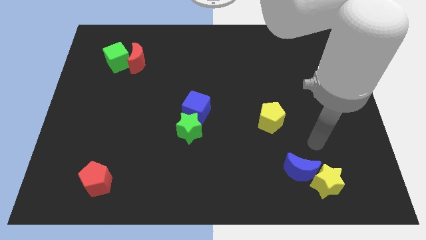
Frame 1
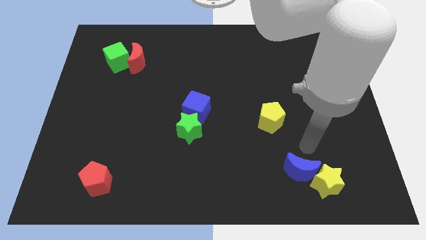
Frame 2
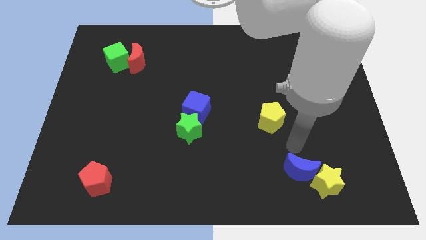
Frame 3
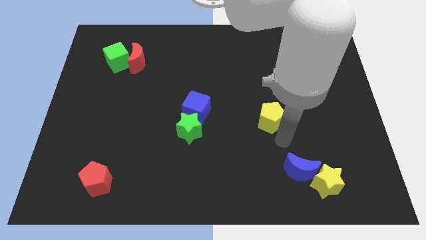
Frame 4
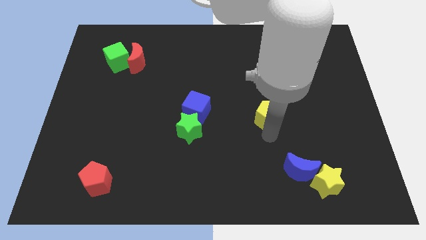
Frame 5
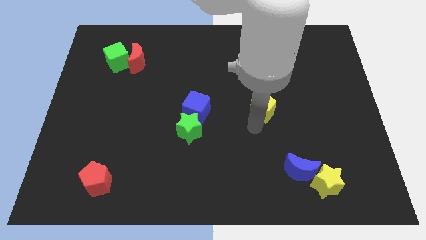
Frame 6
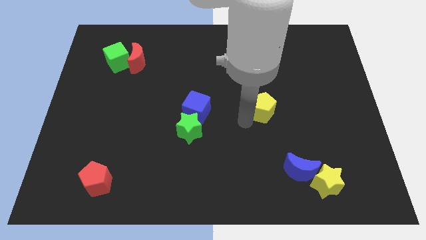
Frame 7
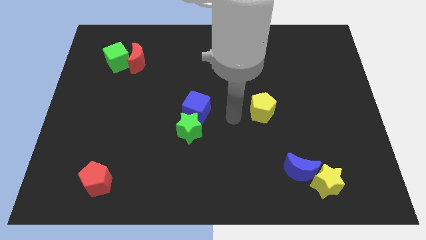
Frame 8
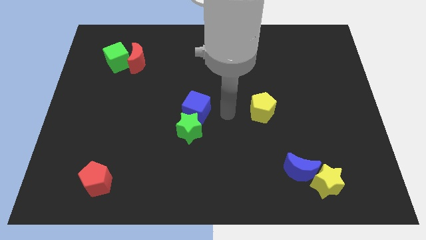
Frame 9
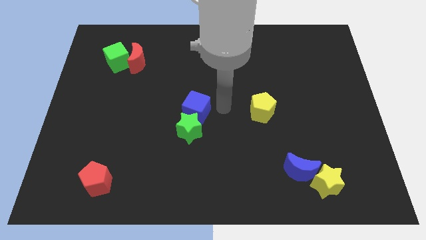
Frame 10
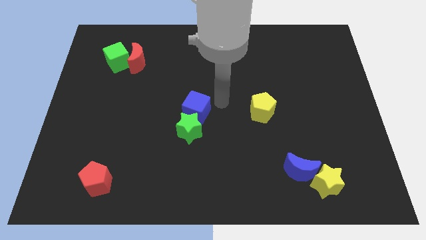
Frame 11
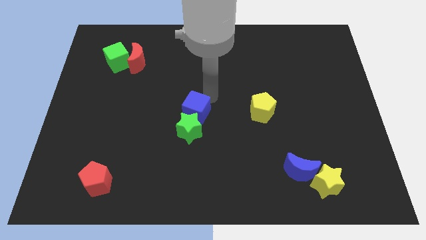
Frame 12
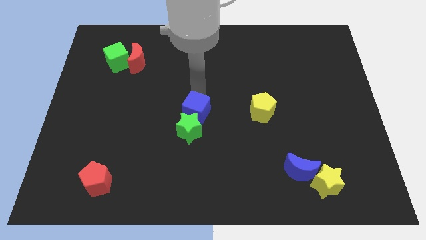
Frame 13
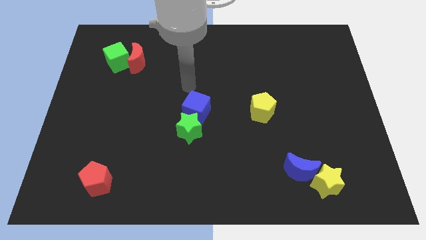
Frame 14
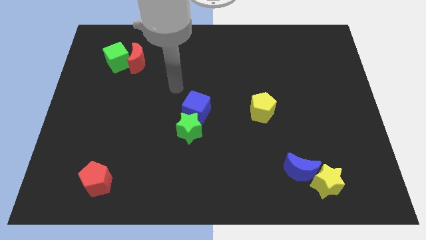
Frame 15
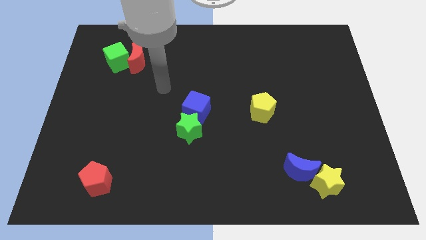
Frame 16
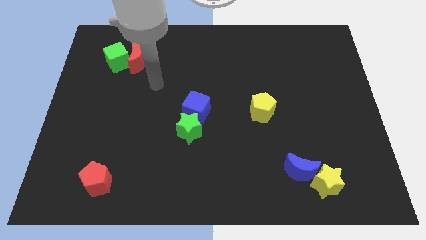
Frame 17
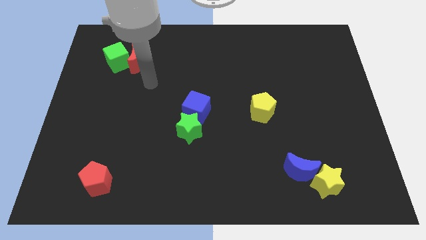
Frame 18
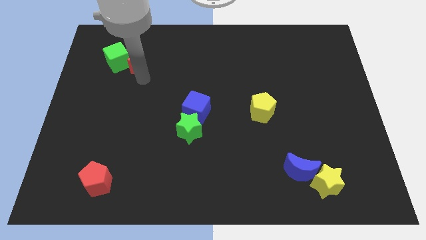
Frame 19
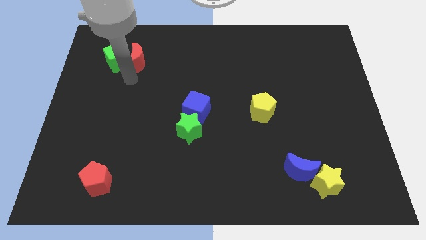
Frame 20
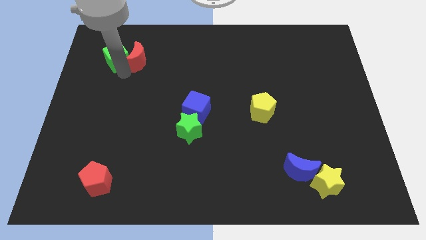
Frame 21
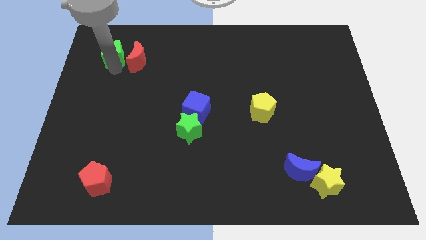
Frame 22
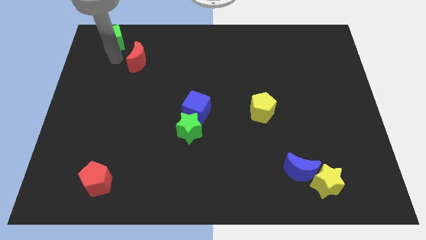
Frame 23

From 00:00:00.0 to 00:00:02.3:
pull the red moon apart from the green cube

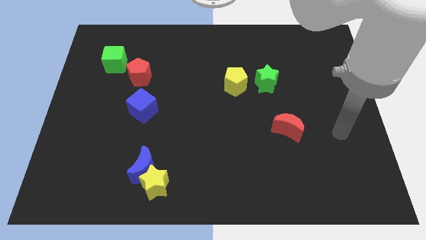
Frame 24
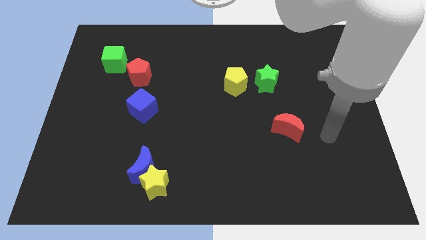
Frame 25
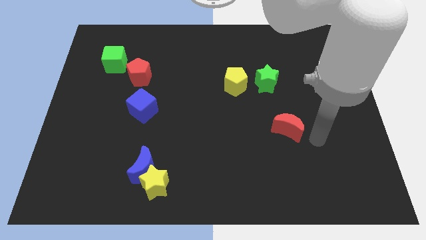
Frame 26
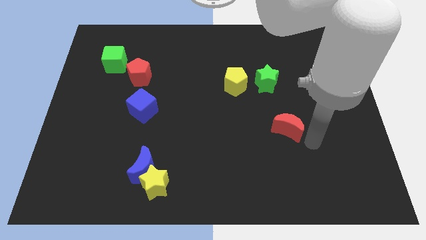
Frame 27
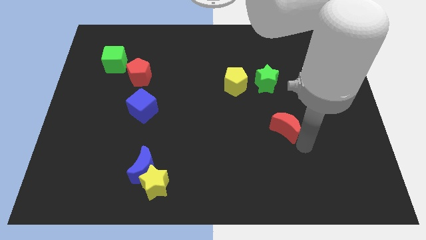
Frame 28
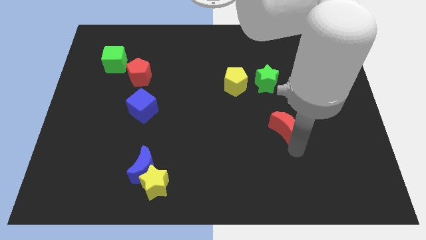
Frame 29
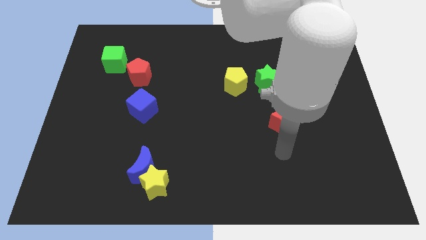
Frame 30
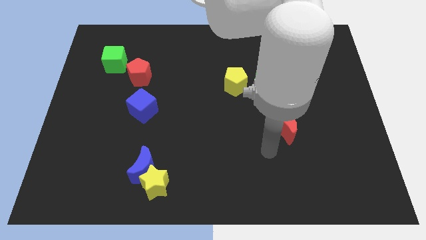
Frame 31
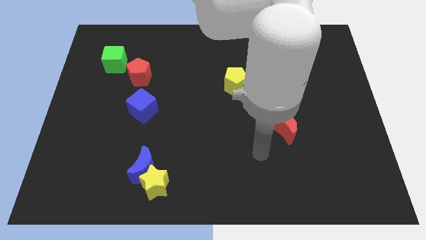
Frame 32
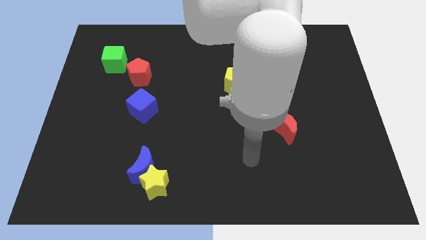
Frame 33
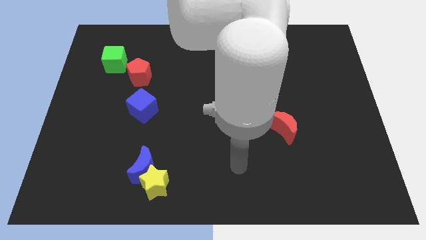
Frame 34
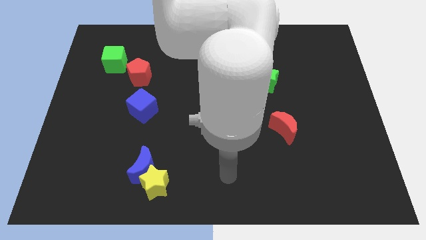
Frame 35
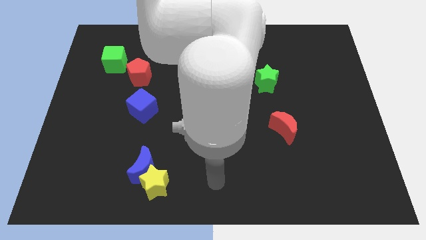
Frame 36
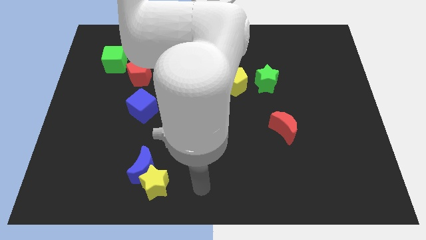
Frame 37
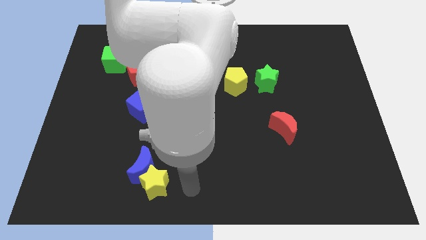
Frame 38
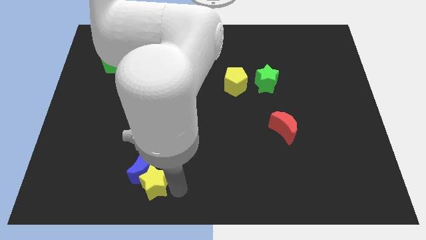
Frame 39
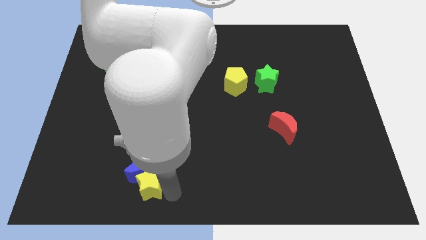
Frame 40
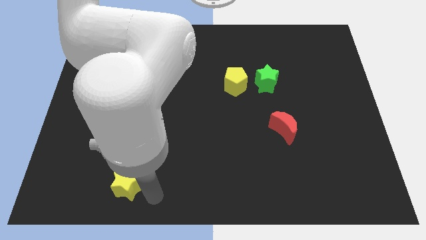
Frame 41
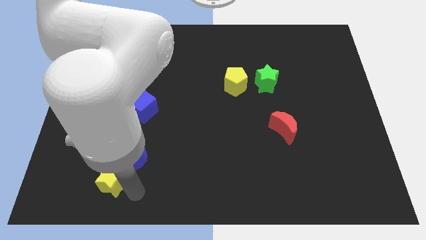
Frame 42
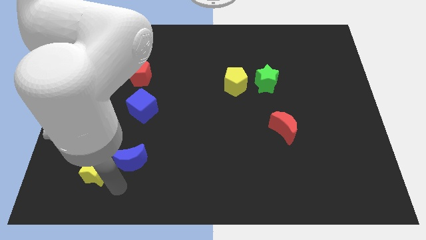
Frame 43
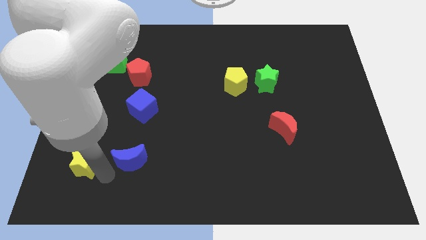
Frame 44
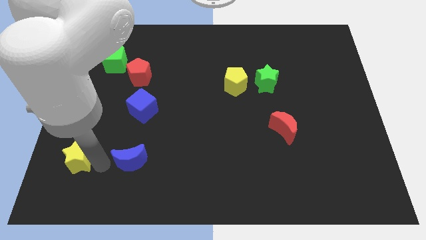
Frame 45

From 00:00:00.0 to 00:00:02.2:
separate the blue moon from the yellow star

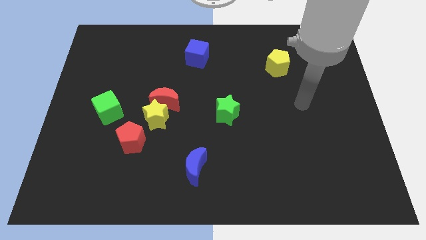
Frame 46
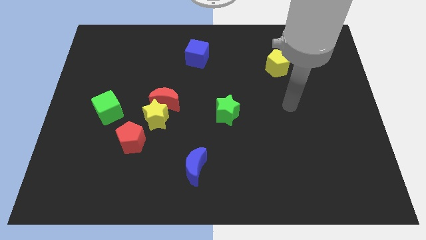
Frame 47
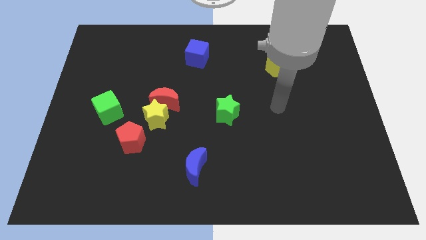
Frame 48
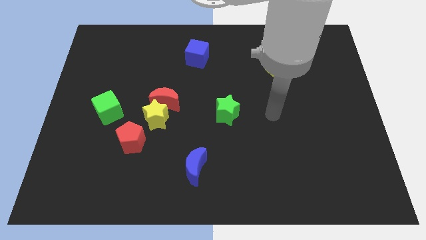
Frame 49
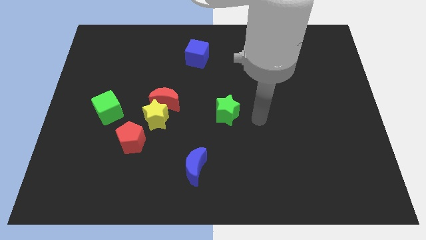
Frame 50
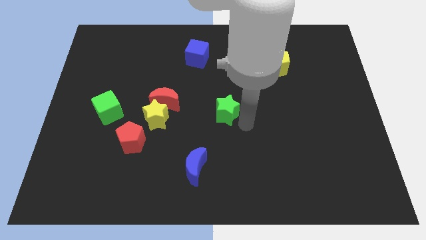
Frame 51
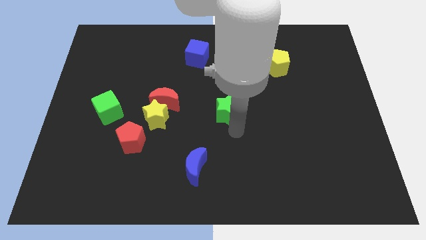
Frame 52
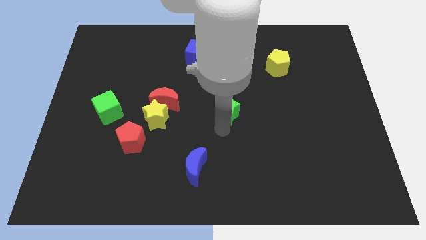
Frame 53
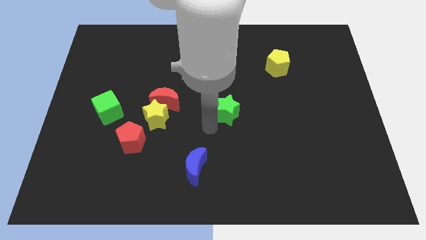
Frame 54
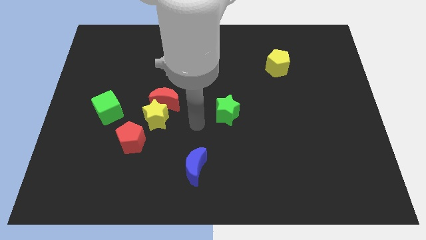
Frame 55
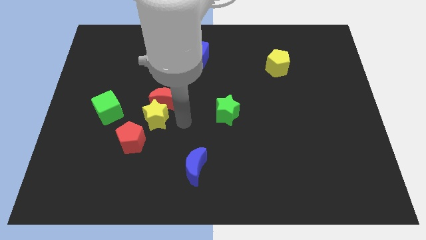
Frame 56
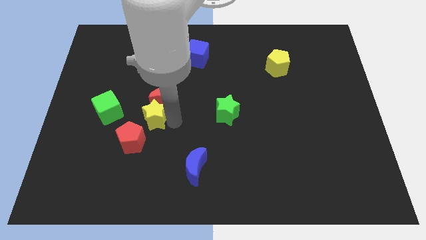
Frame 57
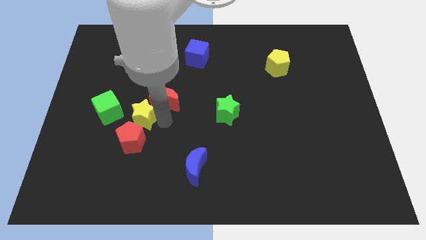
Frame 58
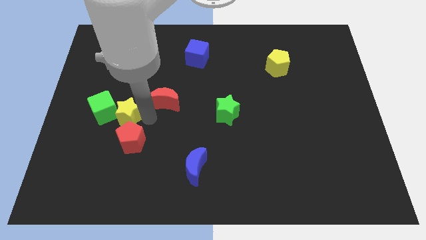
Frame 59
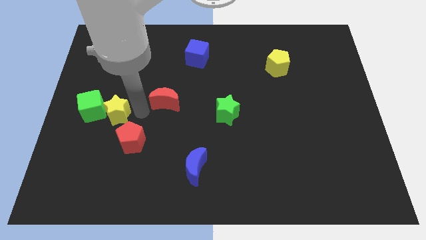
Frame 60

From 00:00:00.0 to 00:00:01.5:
move the red moon away from the yellow star

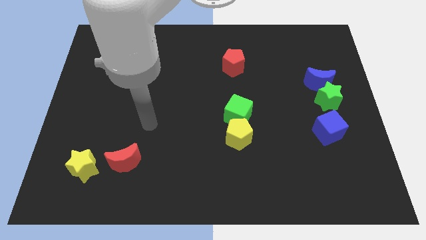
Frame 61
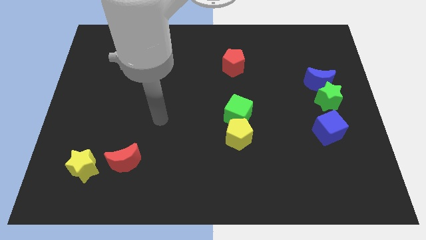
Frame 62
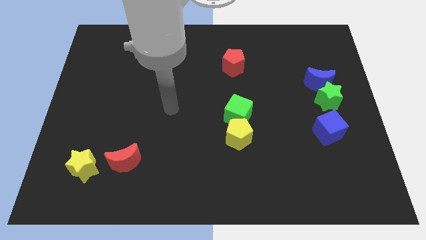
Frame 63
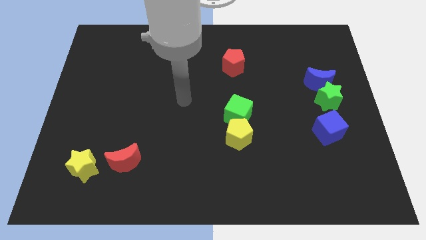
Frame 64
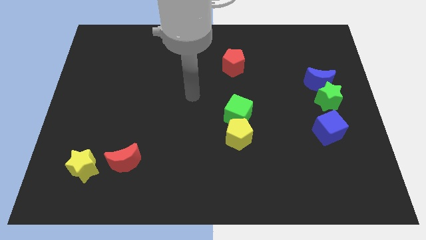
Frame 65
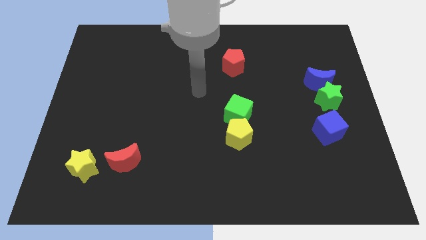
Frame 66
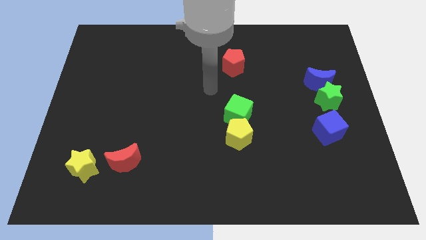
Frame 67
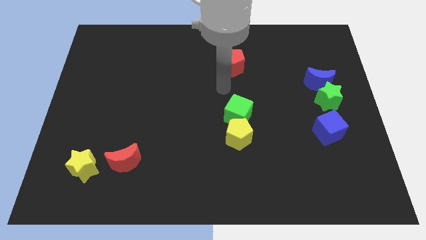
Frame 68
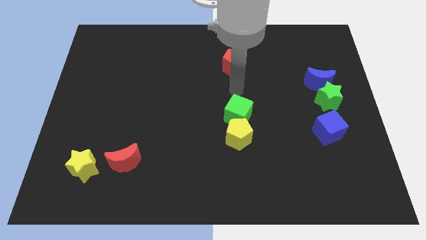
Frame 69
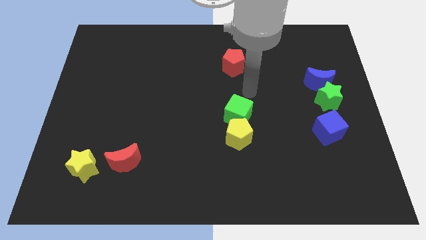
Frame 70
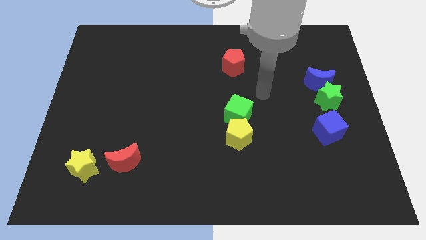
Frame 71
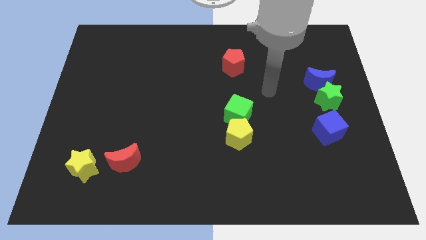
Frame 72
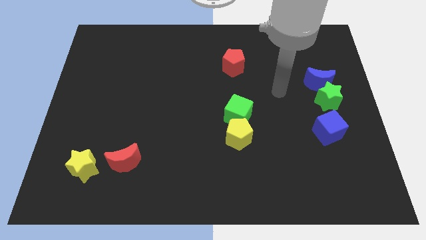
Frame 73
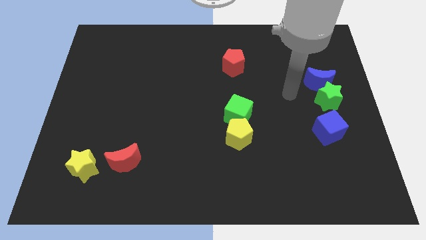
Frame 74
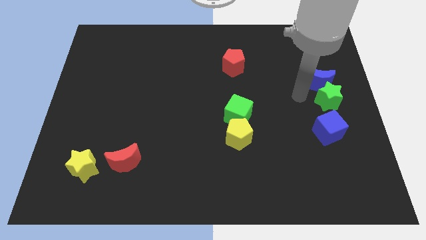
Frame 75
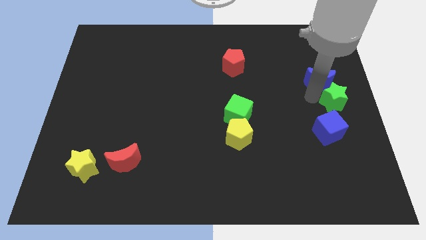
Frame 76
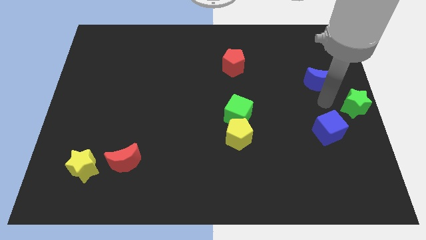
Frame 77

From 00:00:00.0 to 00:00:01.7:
pull the blue moon apart from the green star

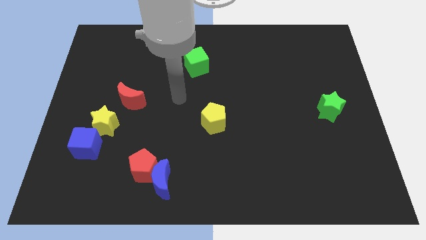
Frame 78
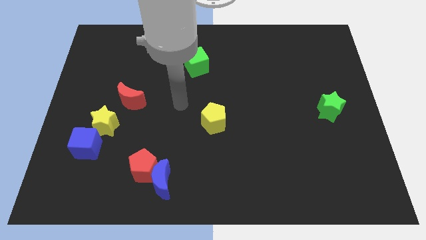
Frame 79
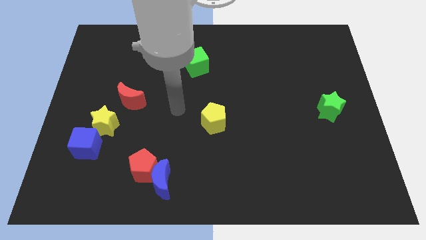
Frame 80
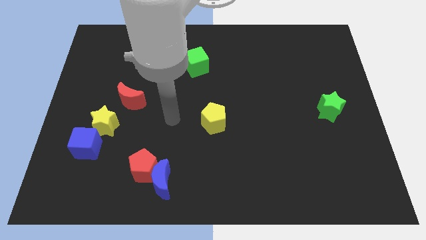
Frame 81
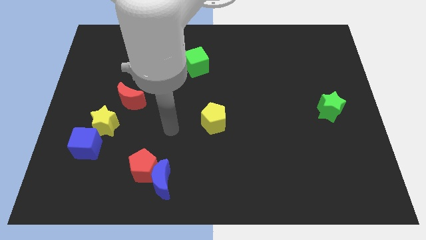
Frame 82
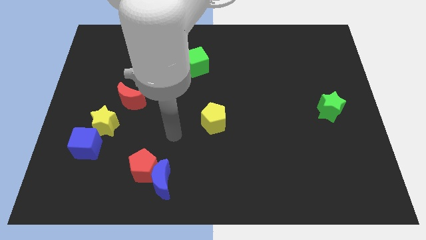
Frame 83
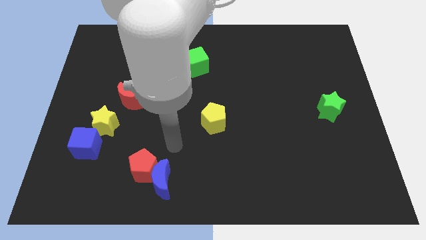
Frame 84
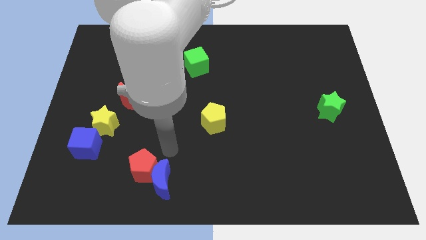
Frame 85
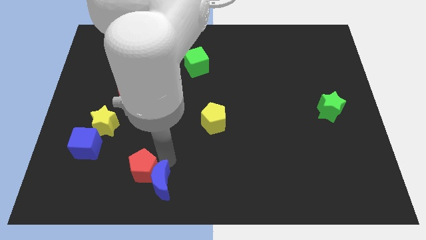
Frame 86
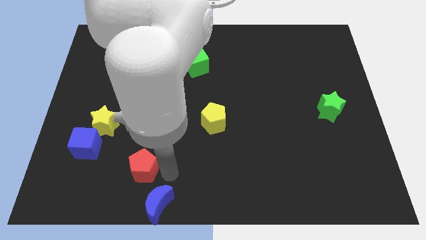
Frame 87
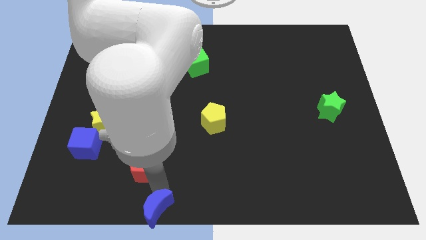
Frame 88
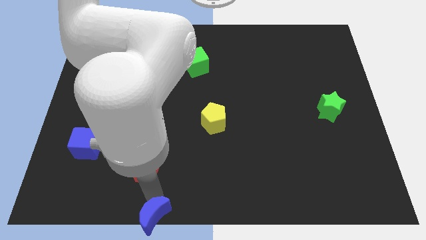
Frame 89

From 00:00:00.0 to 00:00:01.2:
pull the red pentagon apart from the blue moon

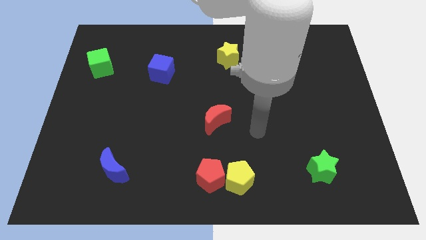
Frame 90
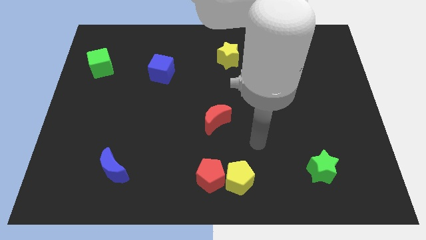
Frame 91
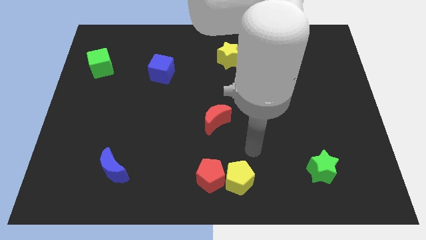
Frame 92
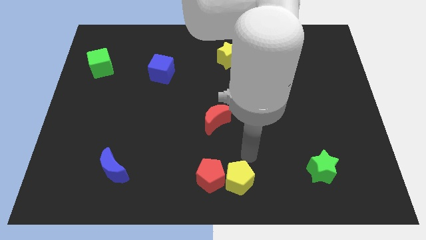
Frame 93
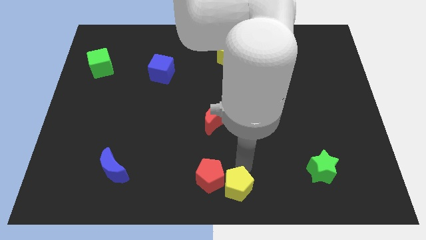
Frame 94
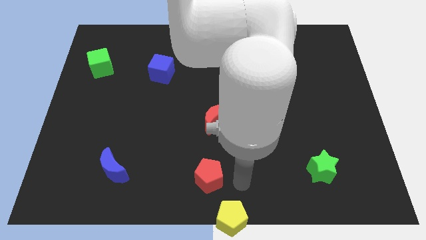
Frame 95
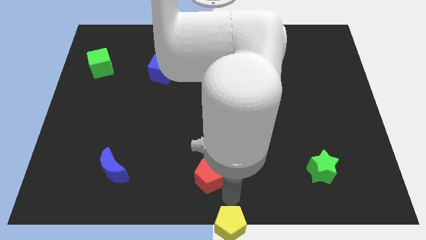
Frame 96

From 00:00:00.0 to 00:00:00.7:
pull the red pentagon apart from the yellow pentagon
